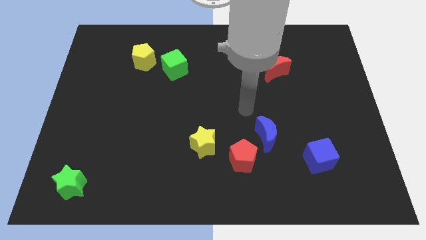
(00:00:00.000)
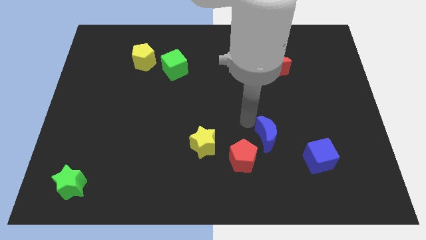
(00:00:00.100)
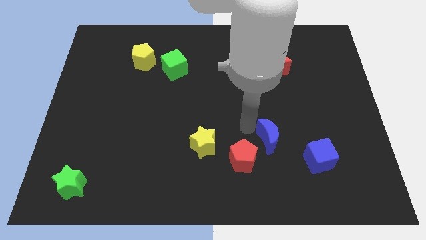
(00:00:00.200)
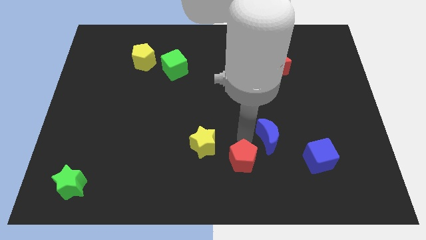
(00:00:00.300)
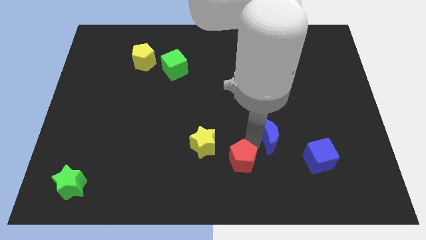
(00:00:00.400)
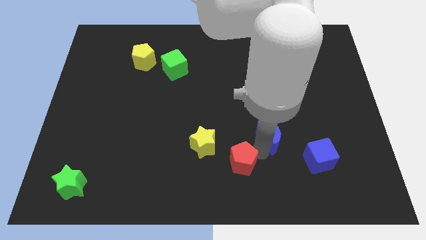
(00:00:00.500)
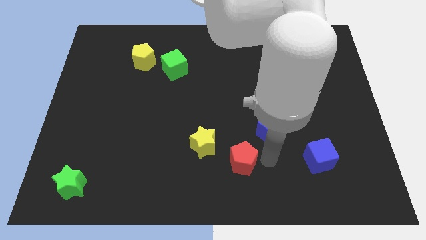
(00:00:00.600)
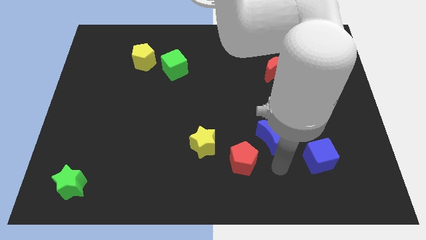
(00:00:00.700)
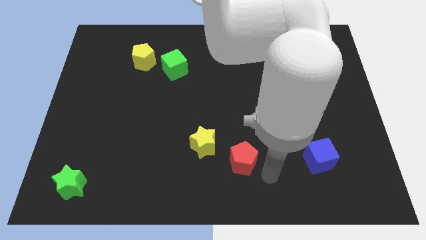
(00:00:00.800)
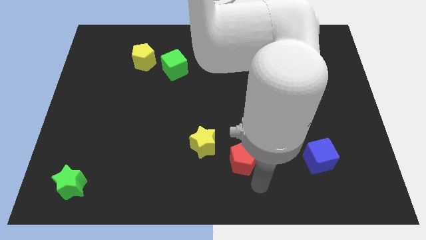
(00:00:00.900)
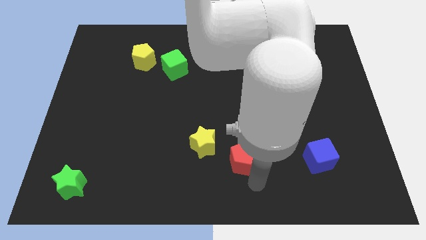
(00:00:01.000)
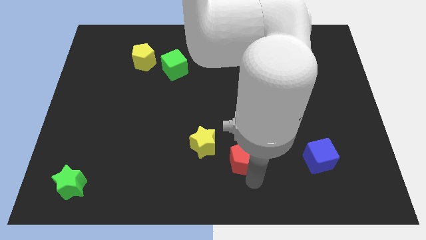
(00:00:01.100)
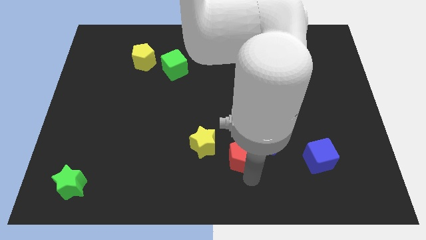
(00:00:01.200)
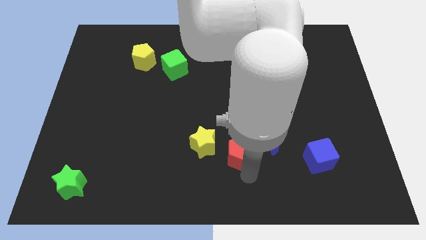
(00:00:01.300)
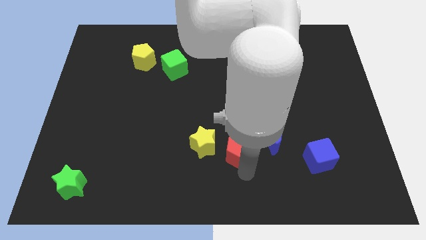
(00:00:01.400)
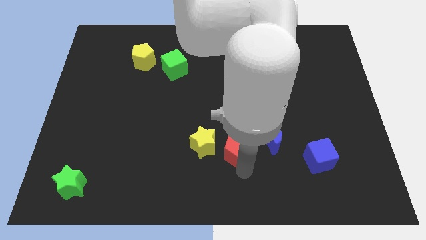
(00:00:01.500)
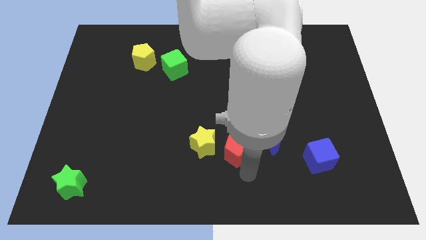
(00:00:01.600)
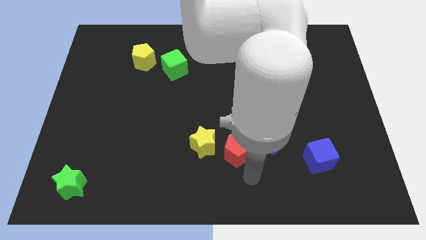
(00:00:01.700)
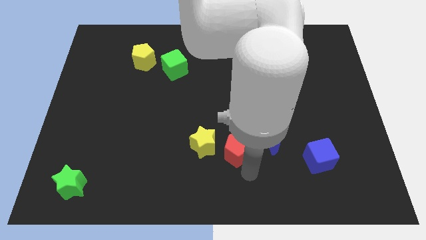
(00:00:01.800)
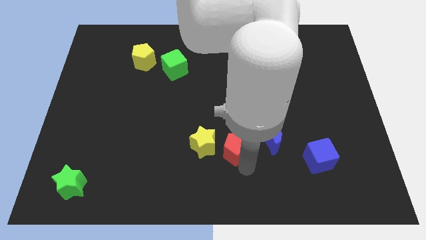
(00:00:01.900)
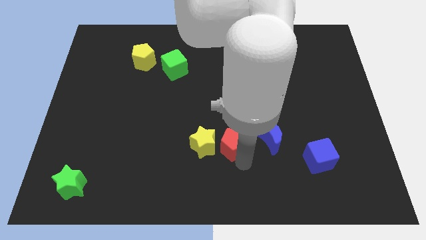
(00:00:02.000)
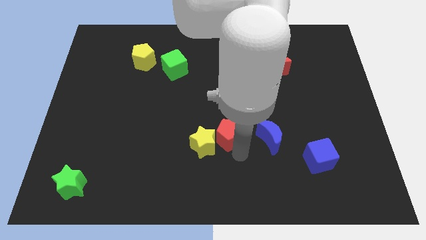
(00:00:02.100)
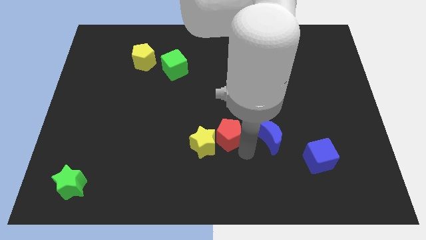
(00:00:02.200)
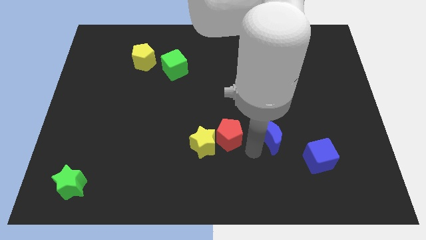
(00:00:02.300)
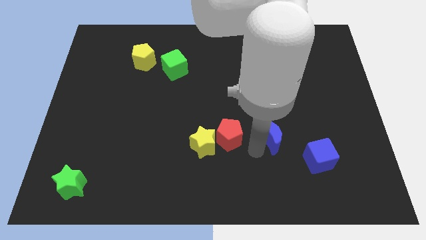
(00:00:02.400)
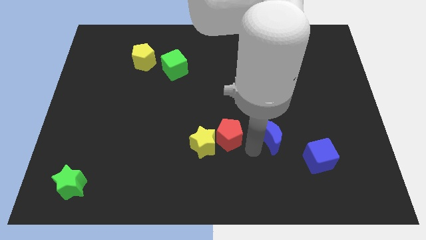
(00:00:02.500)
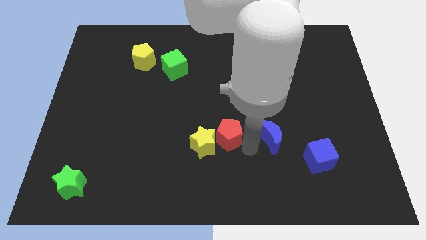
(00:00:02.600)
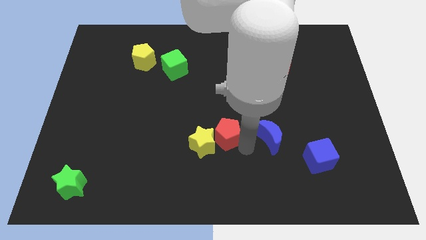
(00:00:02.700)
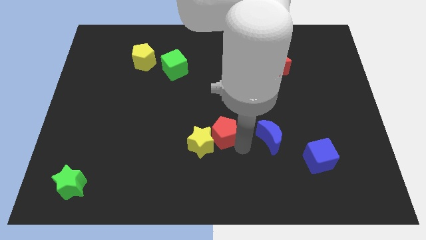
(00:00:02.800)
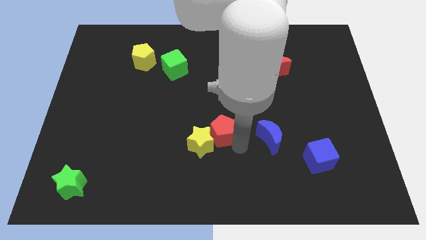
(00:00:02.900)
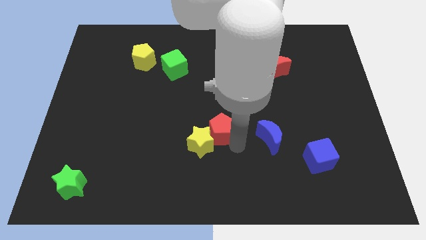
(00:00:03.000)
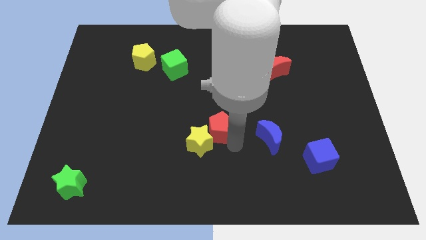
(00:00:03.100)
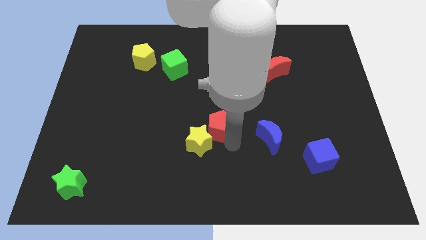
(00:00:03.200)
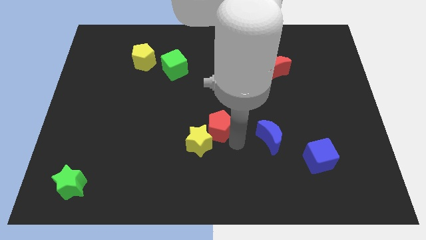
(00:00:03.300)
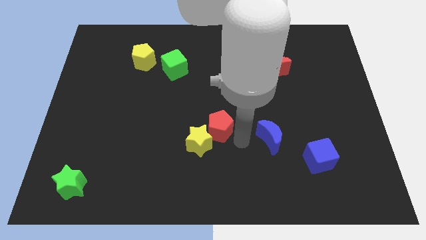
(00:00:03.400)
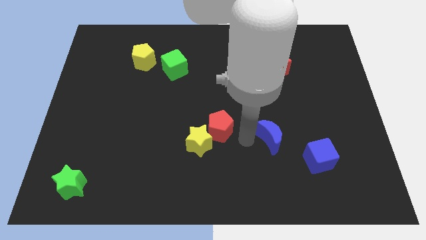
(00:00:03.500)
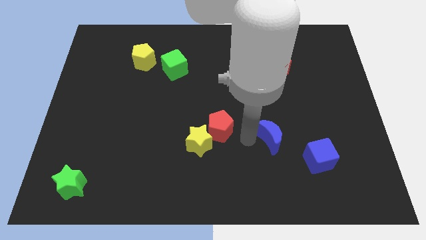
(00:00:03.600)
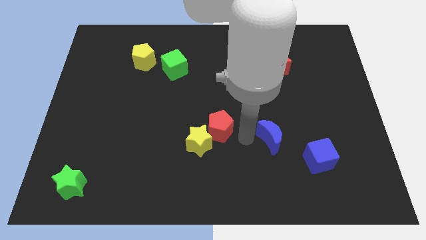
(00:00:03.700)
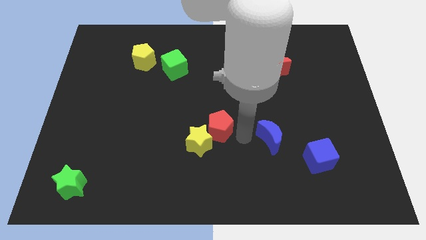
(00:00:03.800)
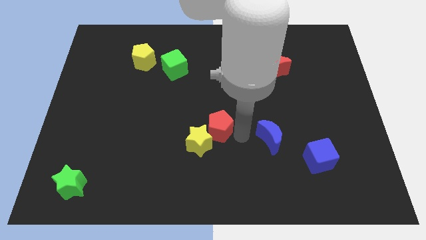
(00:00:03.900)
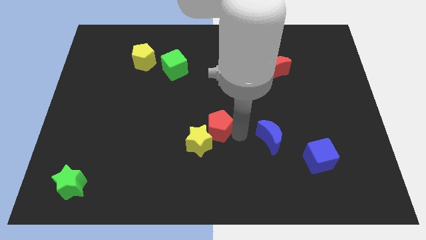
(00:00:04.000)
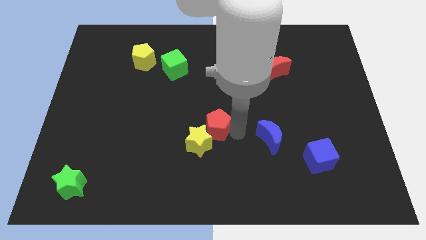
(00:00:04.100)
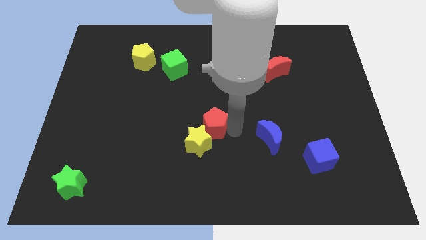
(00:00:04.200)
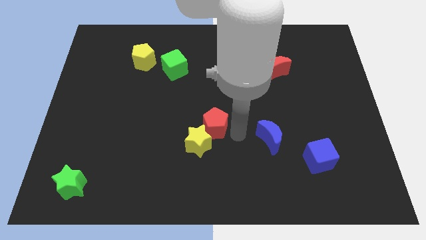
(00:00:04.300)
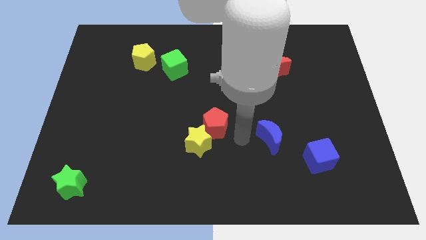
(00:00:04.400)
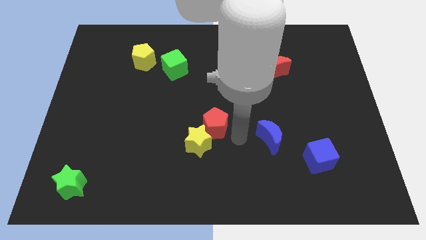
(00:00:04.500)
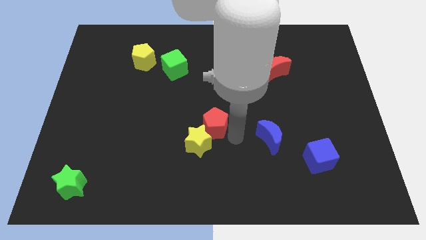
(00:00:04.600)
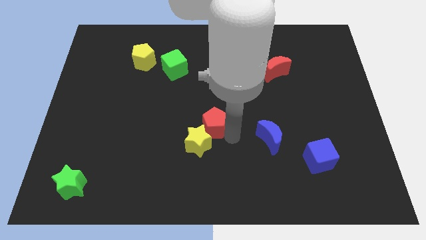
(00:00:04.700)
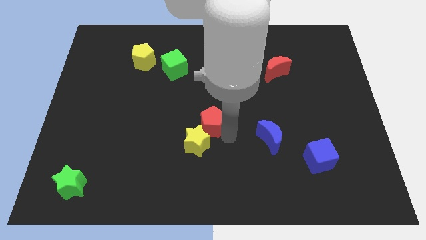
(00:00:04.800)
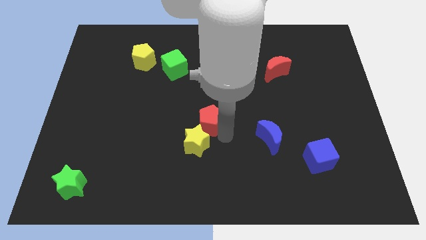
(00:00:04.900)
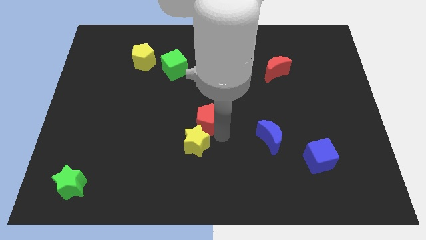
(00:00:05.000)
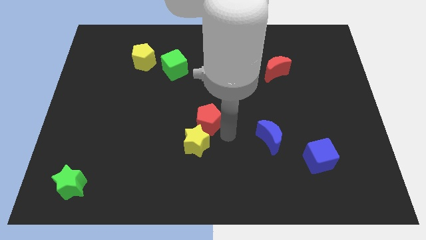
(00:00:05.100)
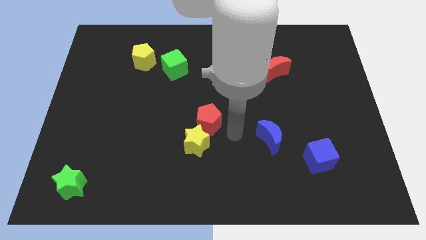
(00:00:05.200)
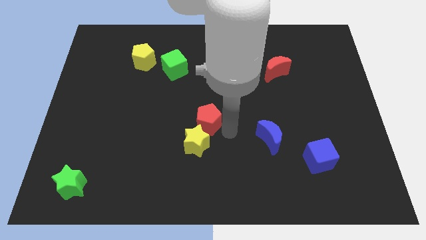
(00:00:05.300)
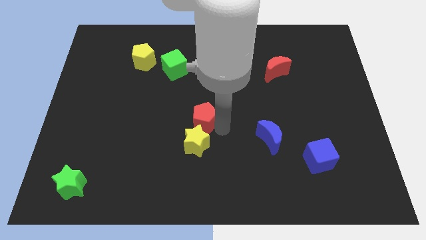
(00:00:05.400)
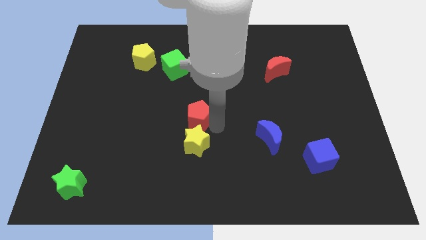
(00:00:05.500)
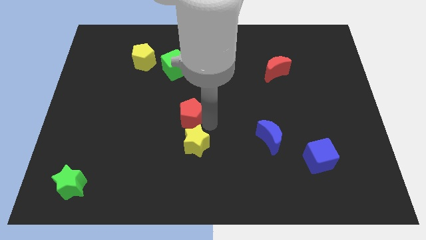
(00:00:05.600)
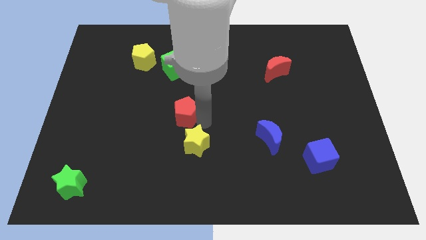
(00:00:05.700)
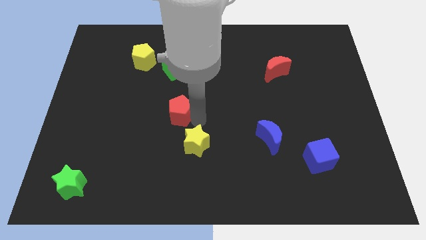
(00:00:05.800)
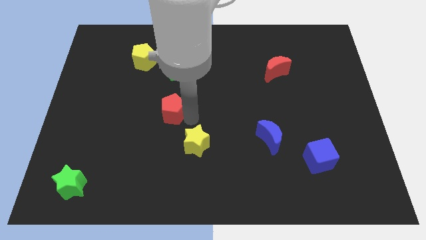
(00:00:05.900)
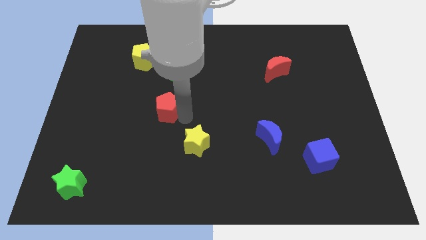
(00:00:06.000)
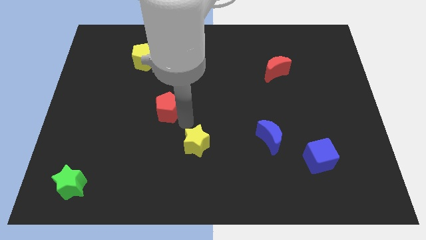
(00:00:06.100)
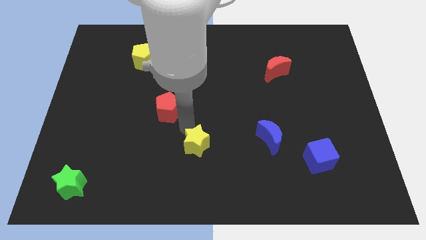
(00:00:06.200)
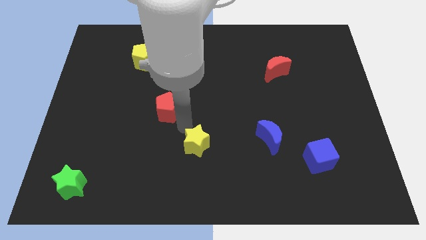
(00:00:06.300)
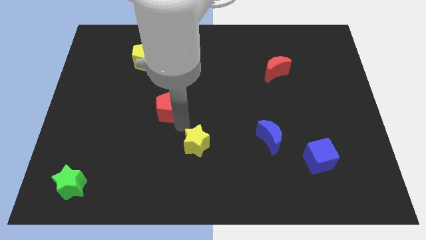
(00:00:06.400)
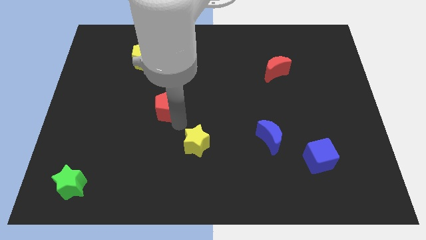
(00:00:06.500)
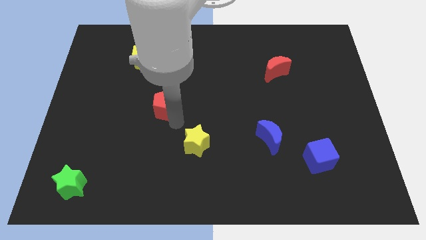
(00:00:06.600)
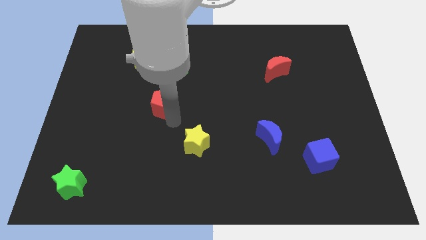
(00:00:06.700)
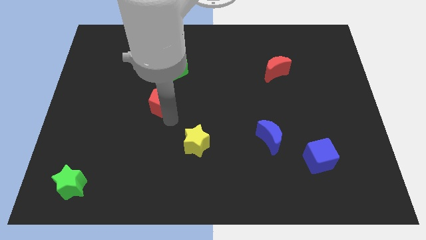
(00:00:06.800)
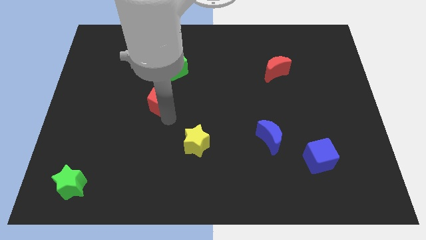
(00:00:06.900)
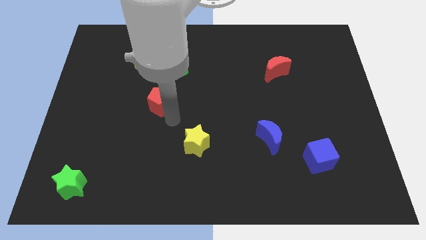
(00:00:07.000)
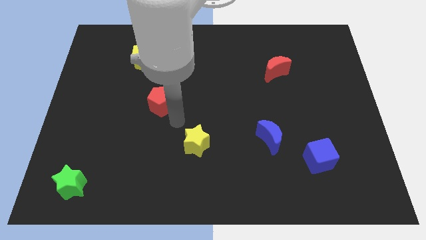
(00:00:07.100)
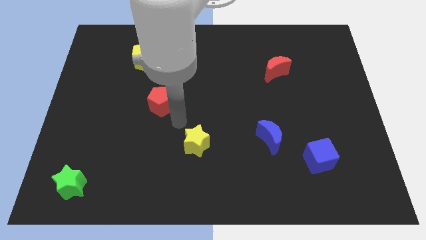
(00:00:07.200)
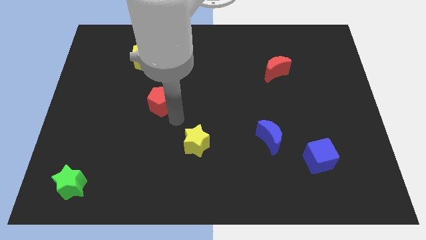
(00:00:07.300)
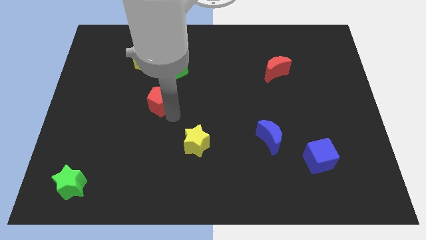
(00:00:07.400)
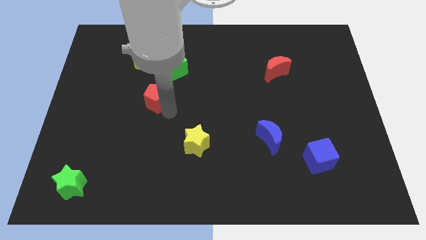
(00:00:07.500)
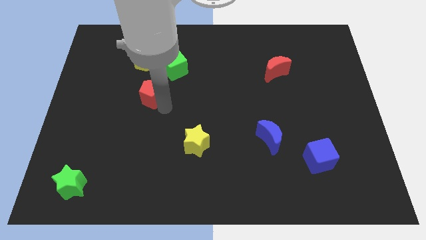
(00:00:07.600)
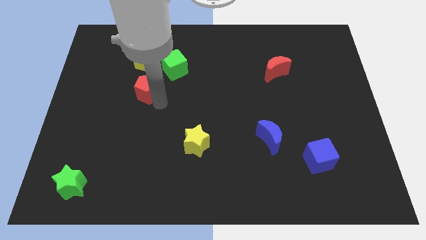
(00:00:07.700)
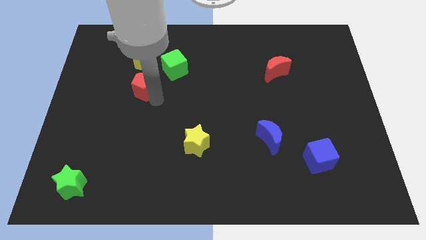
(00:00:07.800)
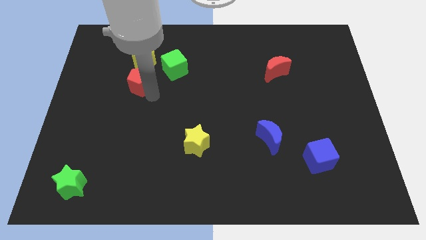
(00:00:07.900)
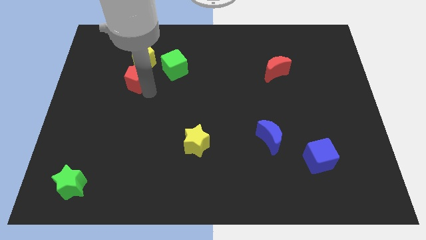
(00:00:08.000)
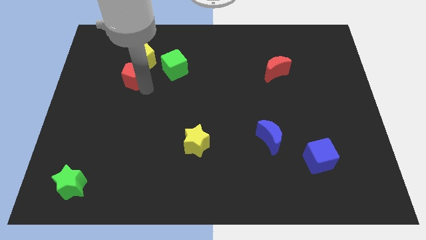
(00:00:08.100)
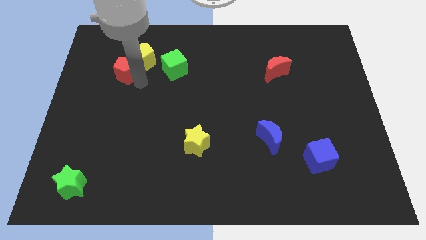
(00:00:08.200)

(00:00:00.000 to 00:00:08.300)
push the red pentagon just left of the yellow pentagon
